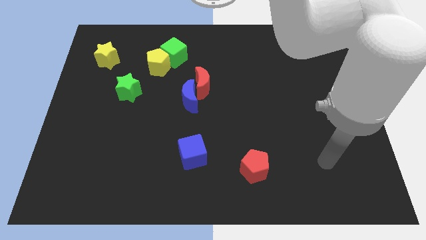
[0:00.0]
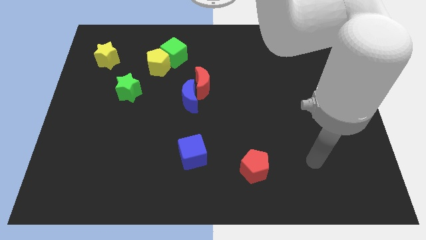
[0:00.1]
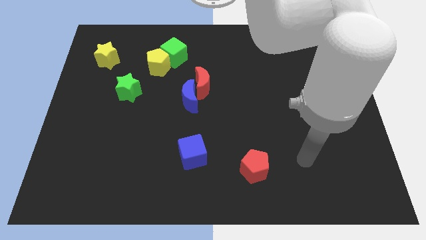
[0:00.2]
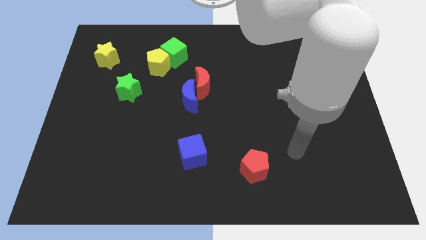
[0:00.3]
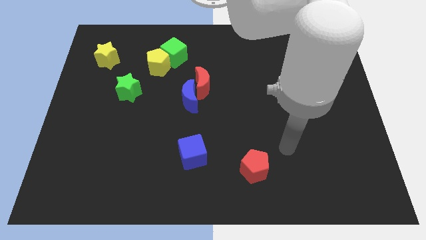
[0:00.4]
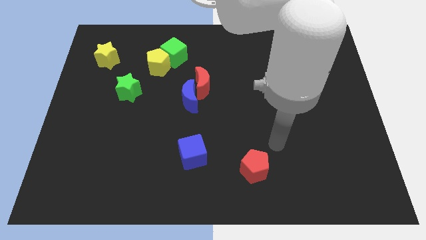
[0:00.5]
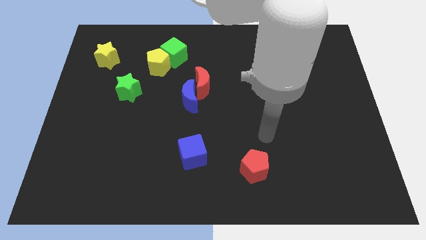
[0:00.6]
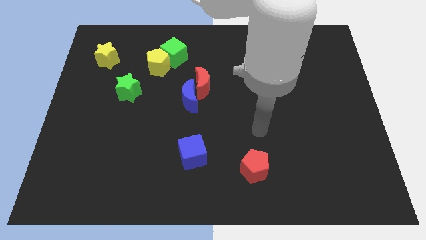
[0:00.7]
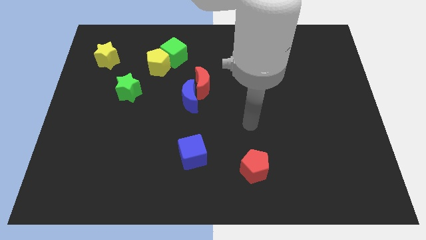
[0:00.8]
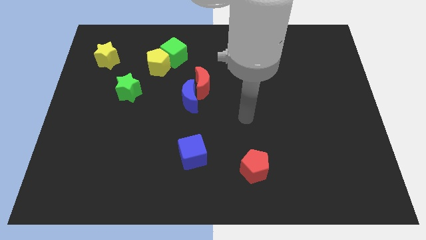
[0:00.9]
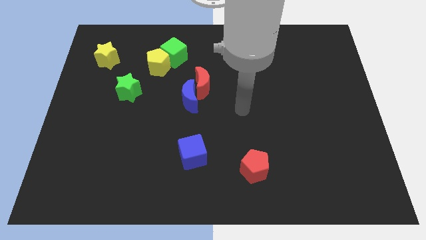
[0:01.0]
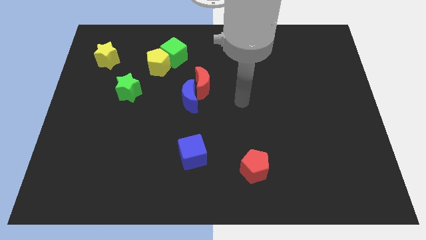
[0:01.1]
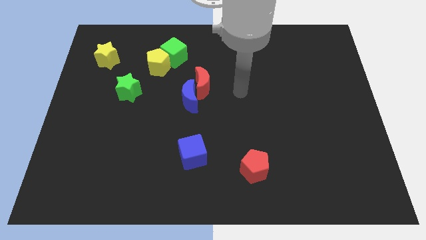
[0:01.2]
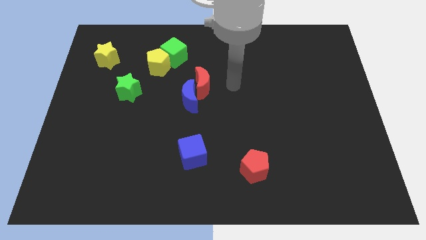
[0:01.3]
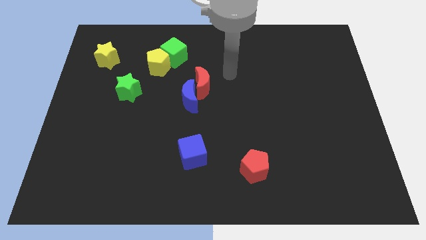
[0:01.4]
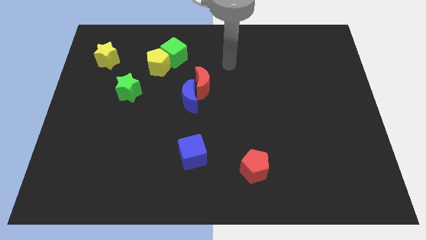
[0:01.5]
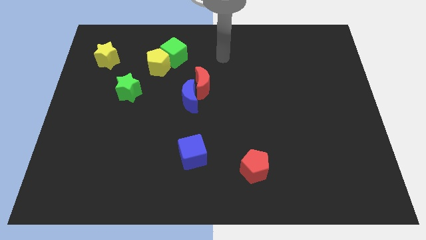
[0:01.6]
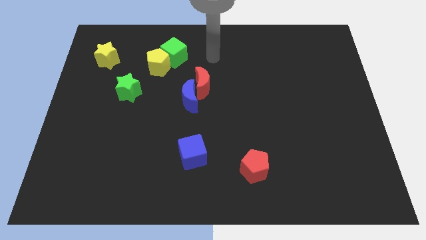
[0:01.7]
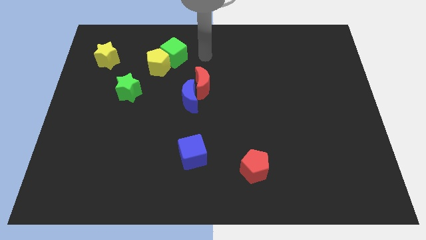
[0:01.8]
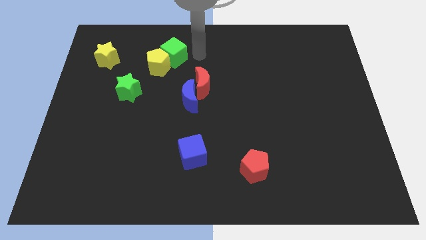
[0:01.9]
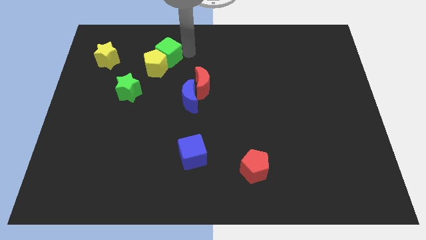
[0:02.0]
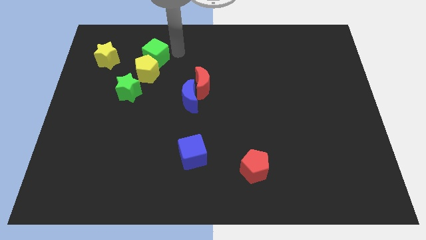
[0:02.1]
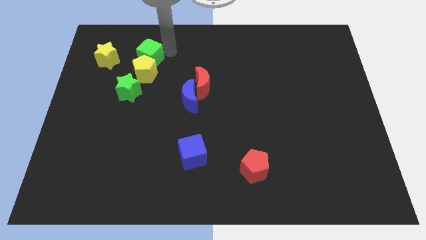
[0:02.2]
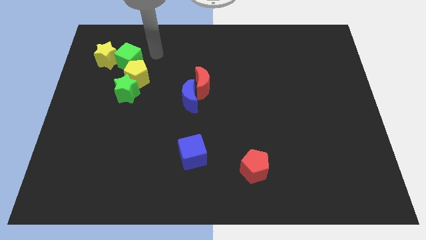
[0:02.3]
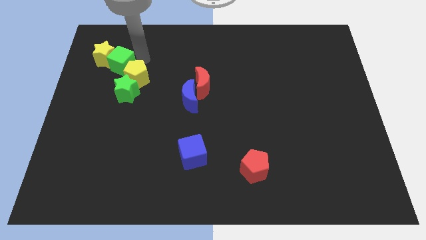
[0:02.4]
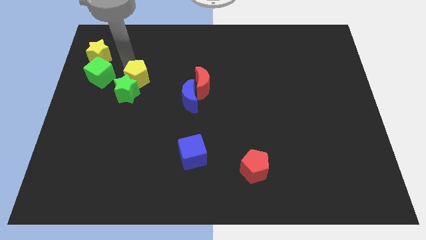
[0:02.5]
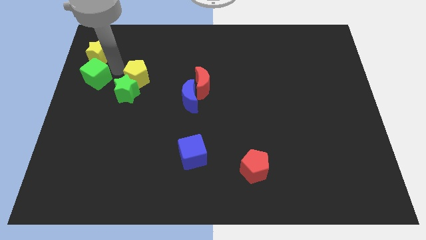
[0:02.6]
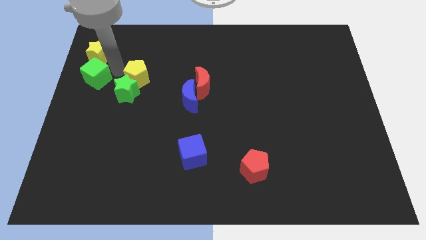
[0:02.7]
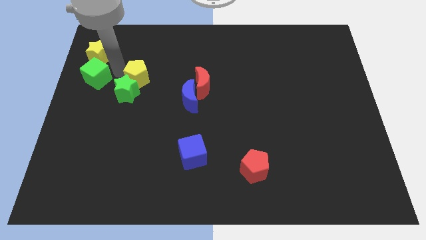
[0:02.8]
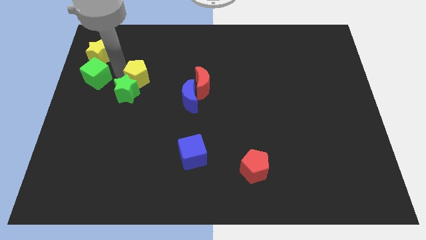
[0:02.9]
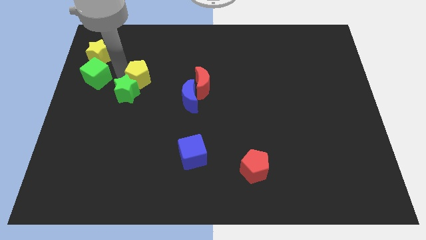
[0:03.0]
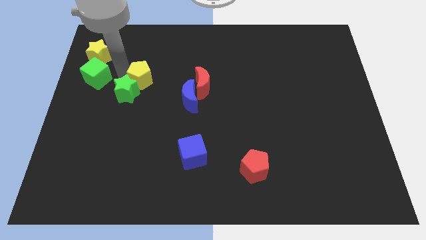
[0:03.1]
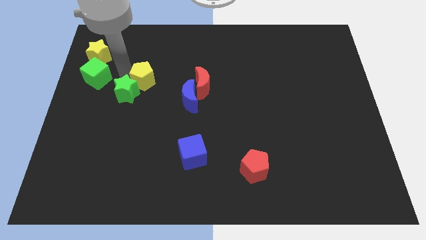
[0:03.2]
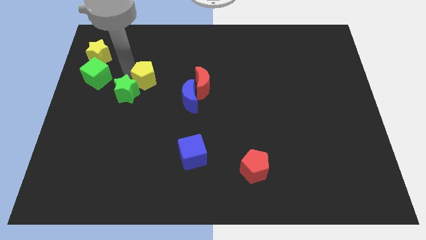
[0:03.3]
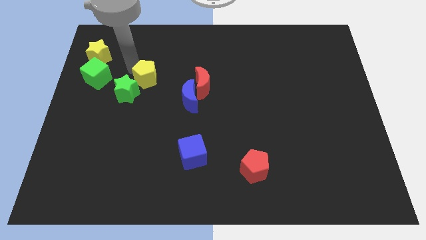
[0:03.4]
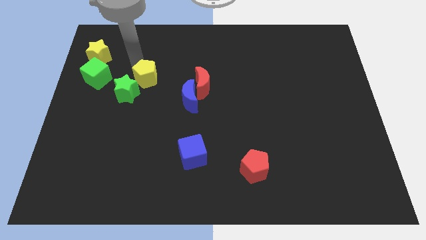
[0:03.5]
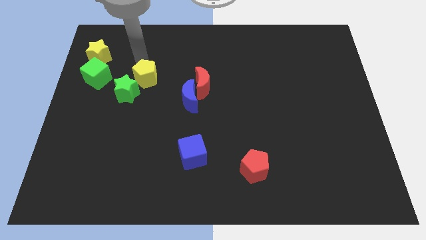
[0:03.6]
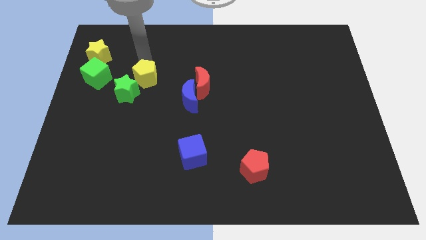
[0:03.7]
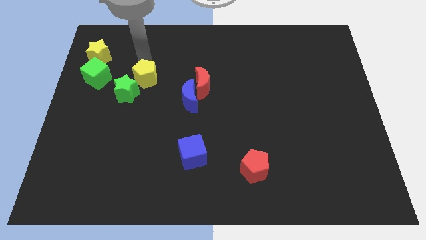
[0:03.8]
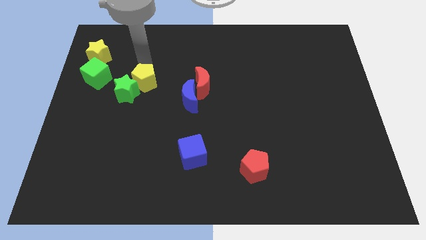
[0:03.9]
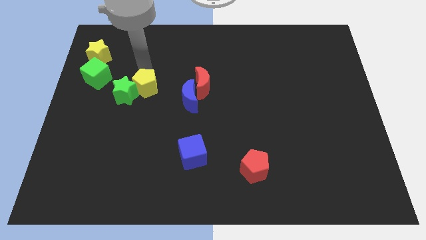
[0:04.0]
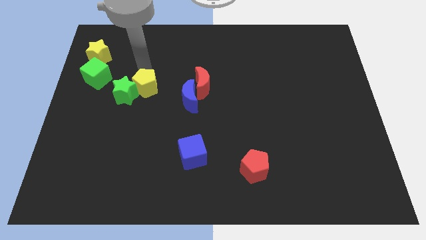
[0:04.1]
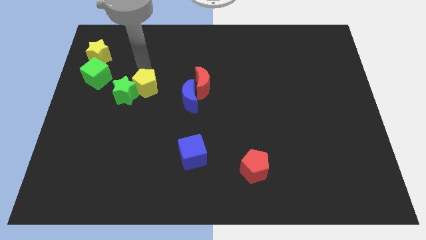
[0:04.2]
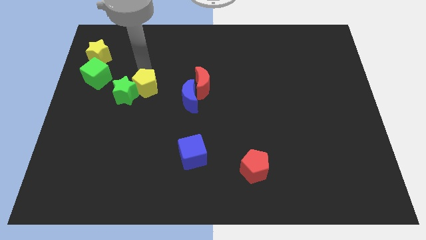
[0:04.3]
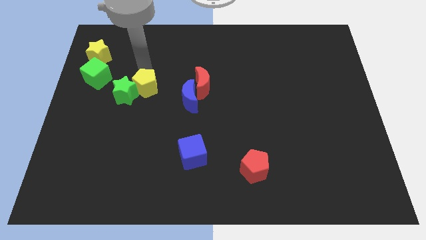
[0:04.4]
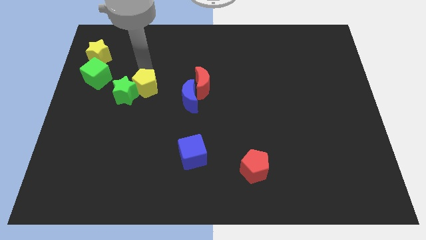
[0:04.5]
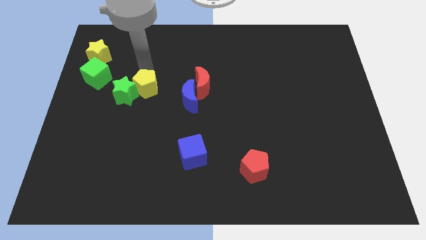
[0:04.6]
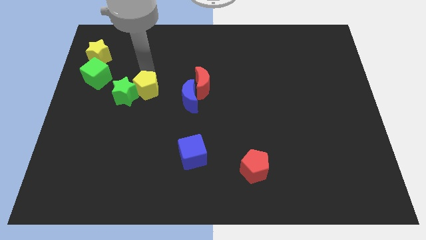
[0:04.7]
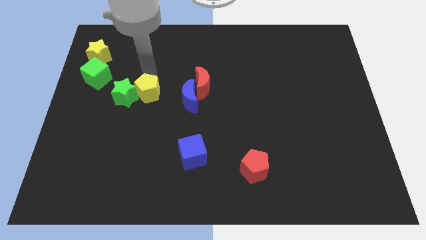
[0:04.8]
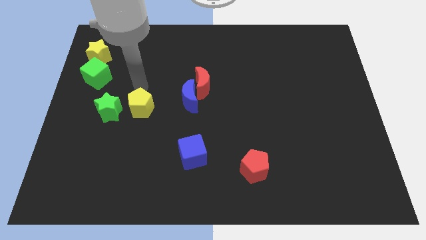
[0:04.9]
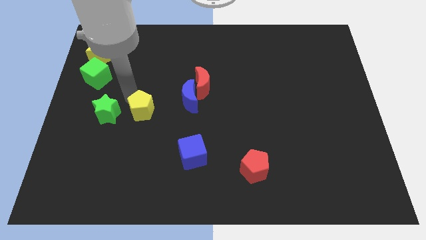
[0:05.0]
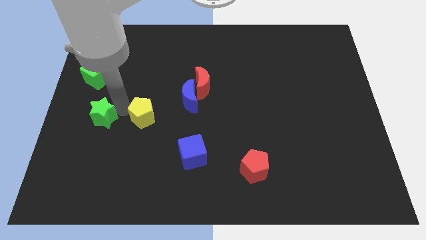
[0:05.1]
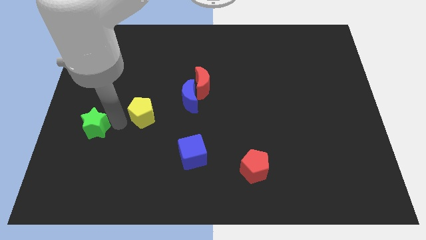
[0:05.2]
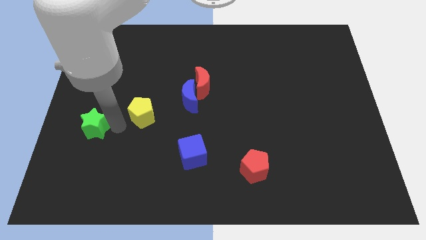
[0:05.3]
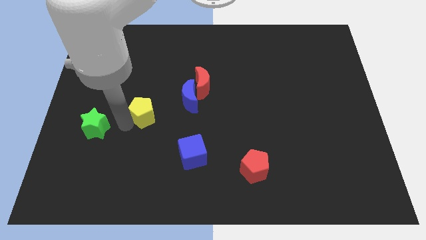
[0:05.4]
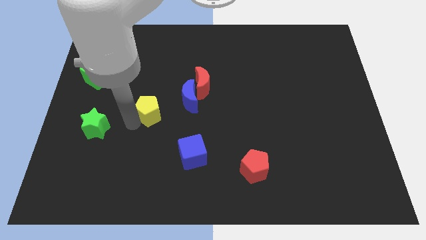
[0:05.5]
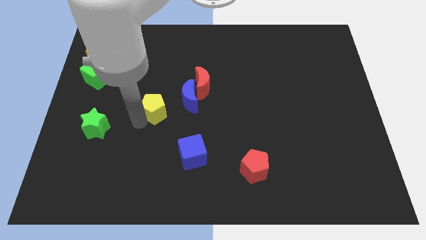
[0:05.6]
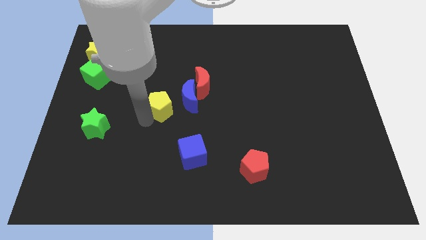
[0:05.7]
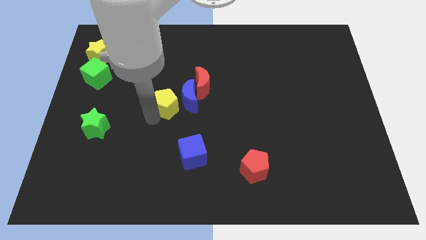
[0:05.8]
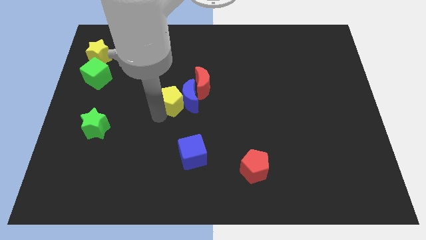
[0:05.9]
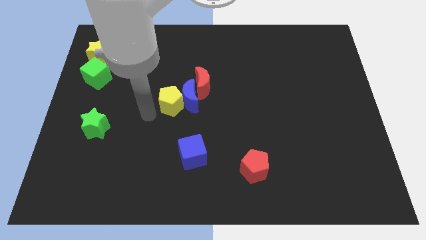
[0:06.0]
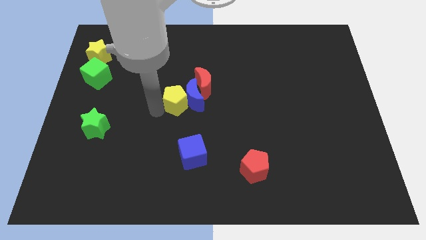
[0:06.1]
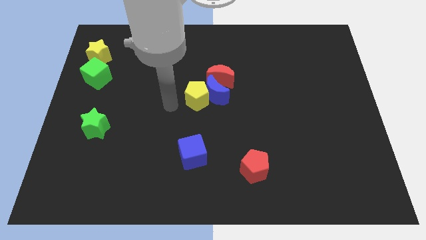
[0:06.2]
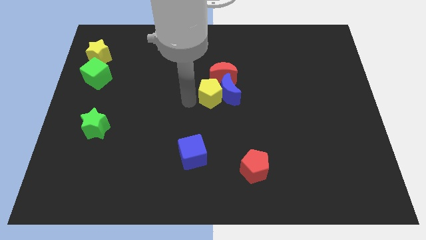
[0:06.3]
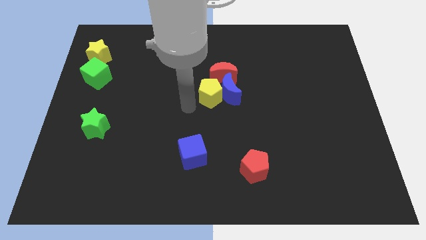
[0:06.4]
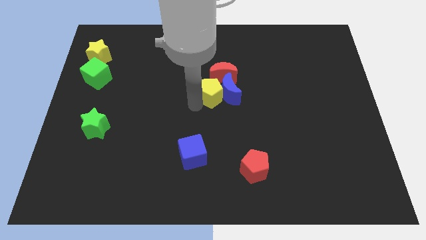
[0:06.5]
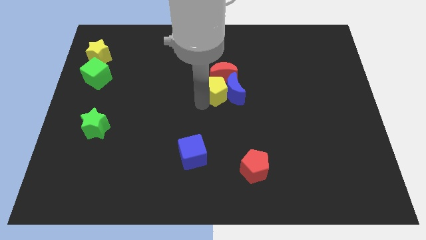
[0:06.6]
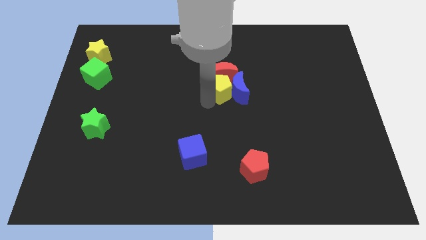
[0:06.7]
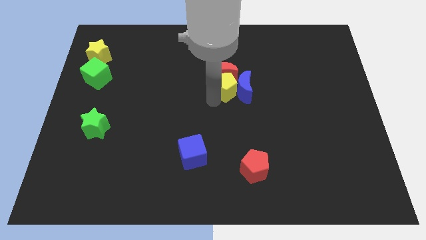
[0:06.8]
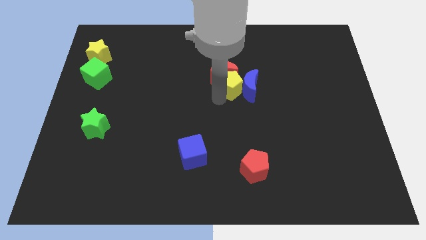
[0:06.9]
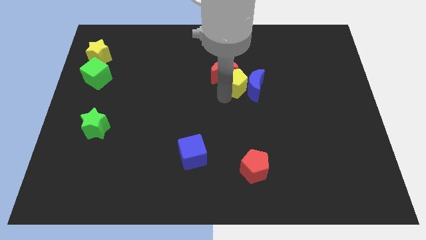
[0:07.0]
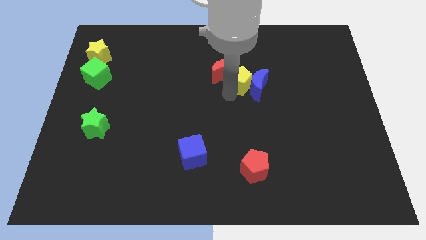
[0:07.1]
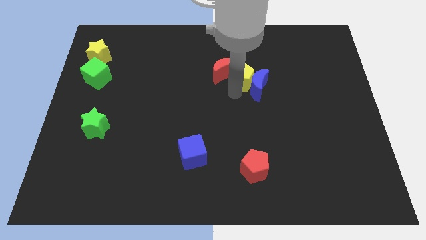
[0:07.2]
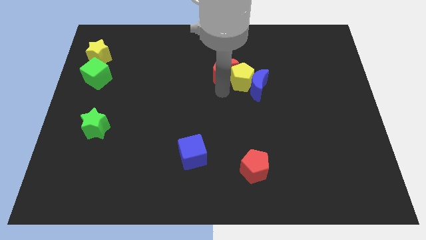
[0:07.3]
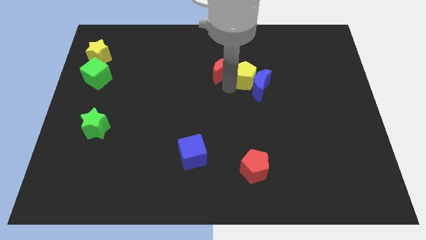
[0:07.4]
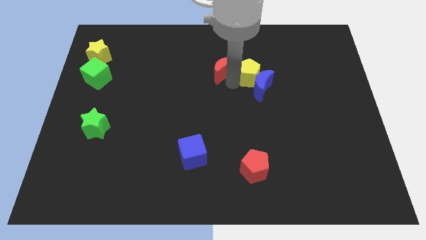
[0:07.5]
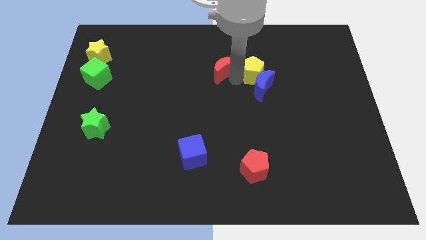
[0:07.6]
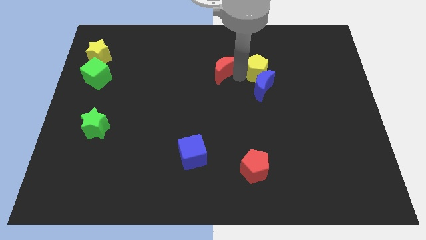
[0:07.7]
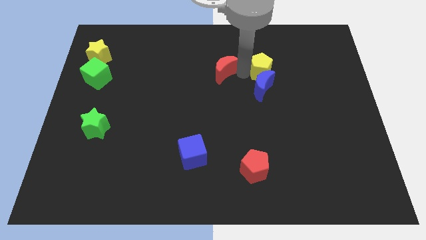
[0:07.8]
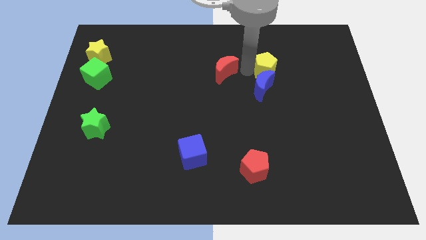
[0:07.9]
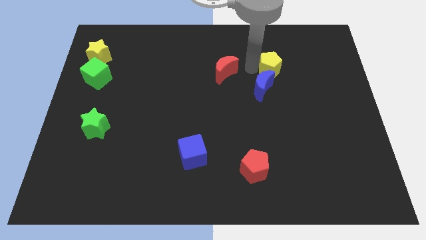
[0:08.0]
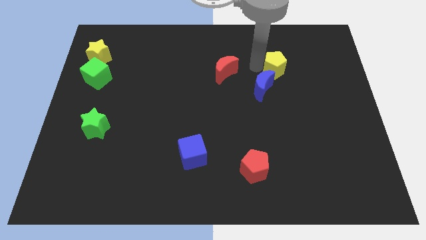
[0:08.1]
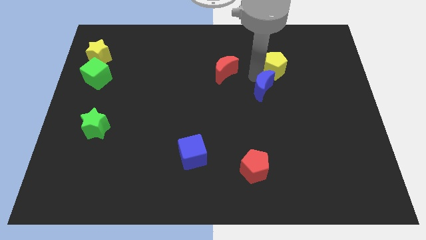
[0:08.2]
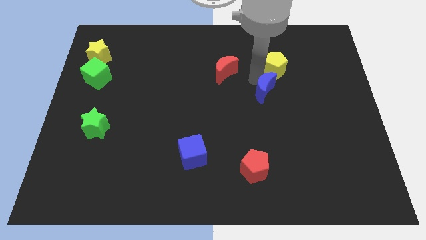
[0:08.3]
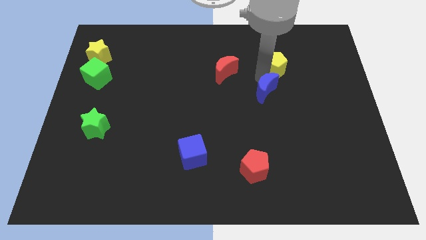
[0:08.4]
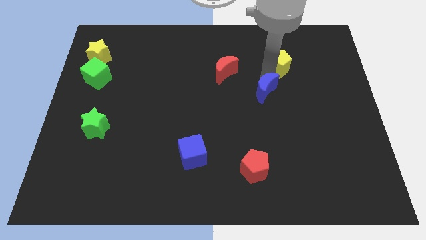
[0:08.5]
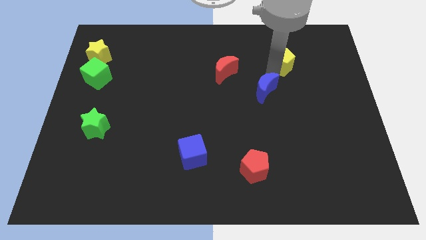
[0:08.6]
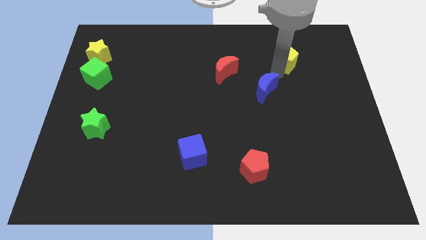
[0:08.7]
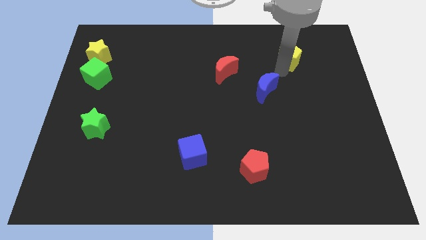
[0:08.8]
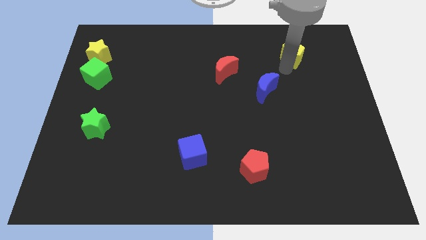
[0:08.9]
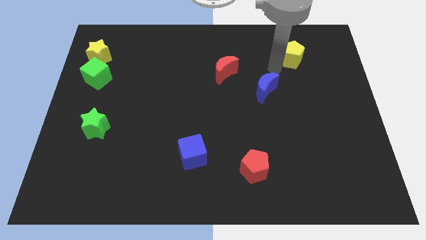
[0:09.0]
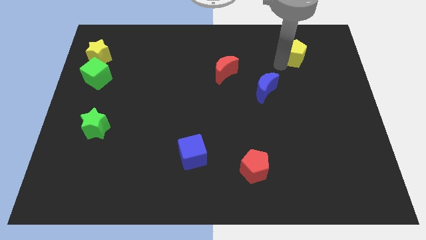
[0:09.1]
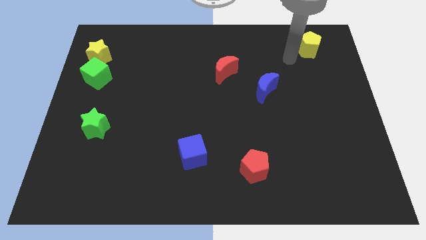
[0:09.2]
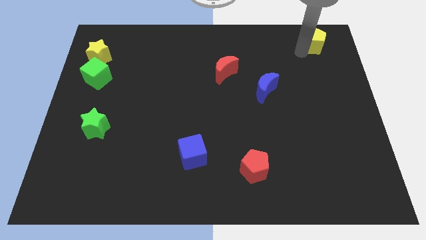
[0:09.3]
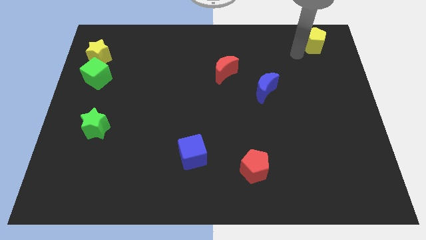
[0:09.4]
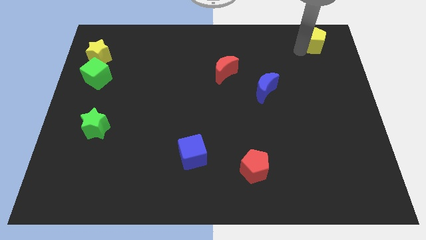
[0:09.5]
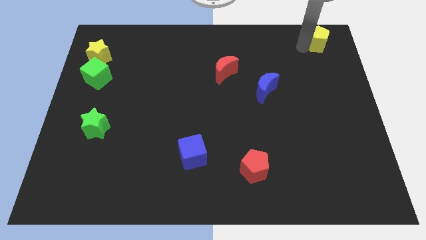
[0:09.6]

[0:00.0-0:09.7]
move the yellow pentagon to the top right of the board
